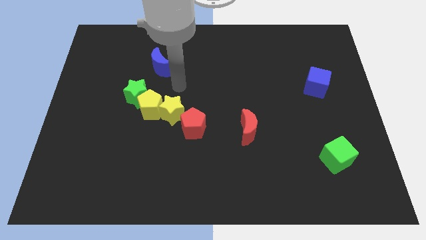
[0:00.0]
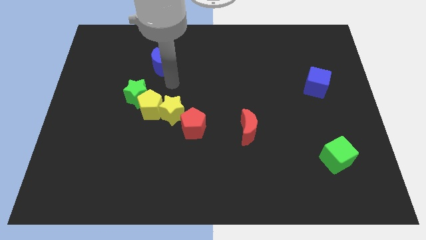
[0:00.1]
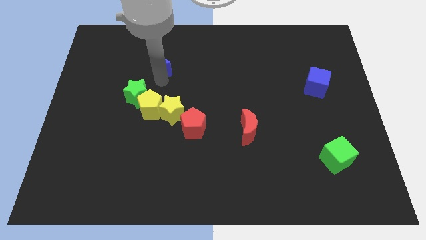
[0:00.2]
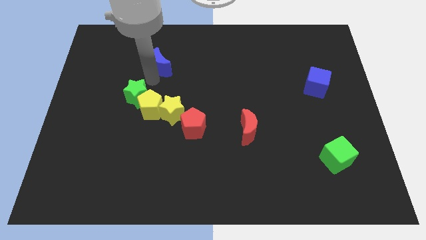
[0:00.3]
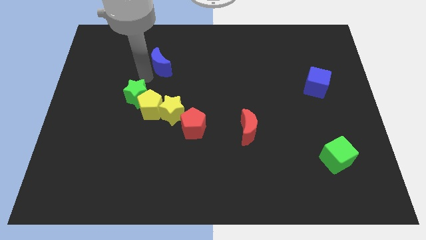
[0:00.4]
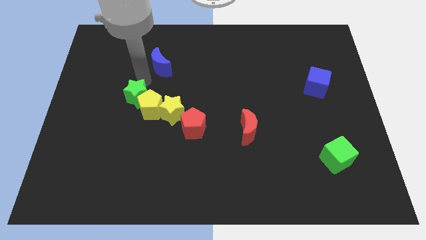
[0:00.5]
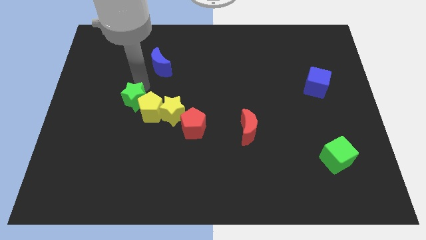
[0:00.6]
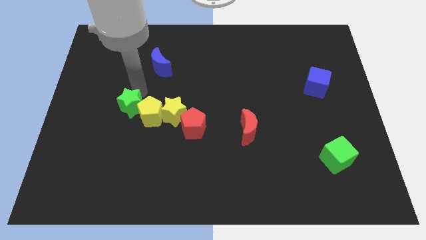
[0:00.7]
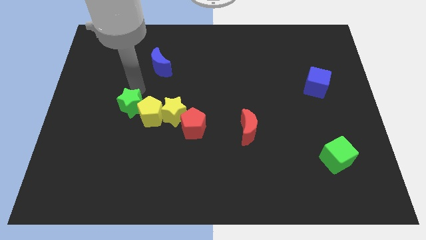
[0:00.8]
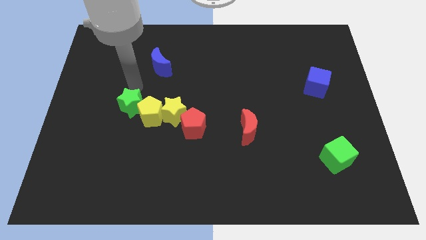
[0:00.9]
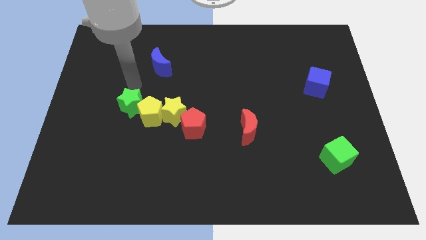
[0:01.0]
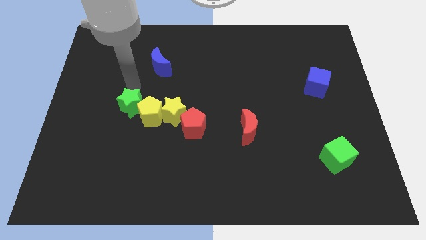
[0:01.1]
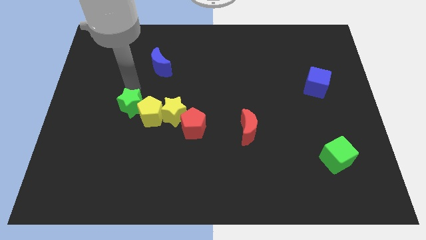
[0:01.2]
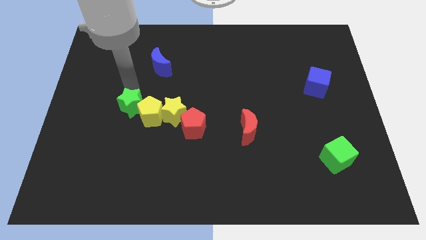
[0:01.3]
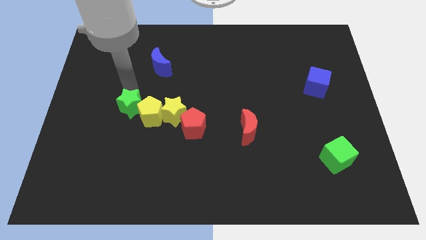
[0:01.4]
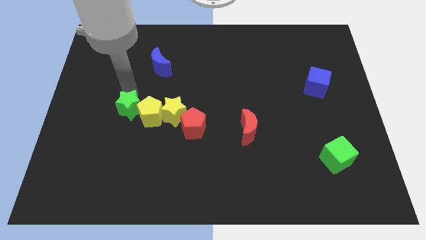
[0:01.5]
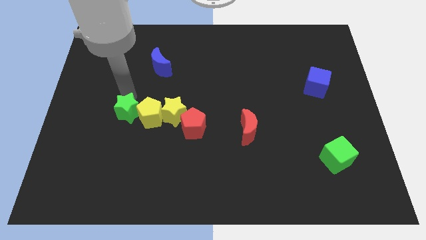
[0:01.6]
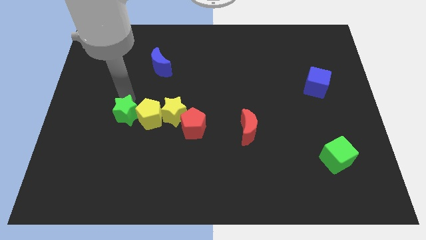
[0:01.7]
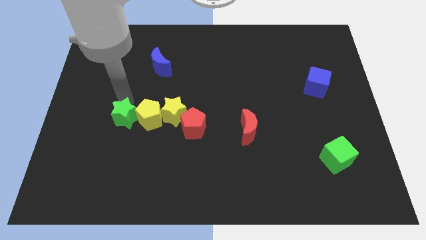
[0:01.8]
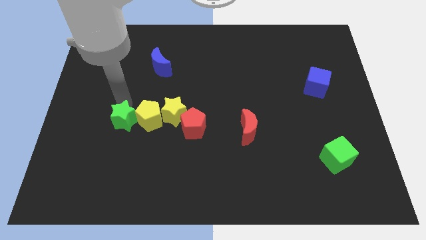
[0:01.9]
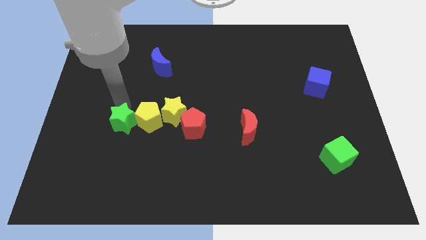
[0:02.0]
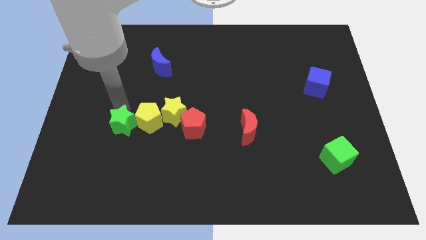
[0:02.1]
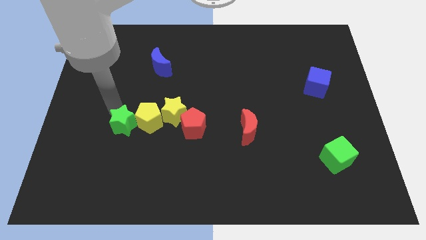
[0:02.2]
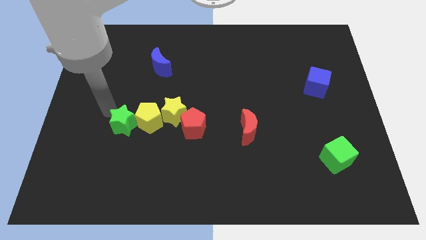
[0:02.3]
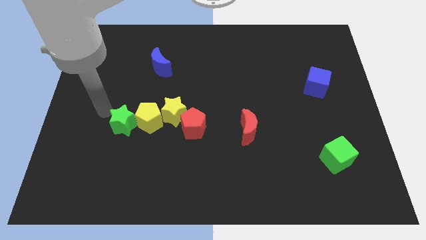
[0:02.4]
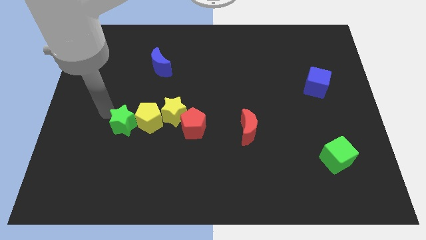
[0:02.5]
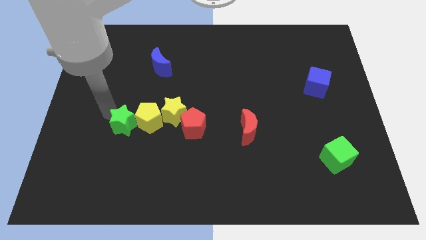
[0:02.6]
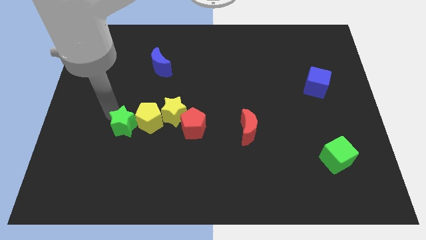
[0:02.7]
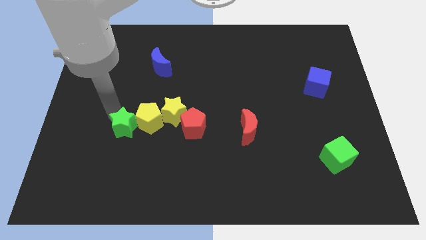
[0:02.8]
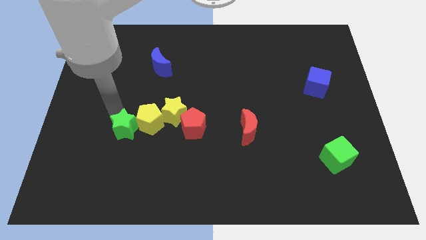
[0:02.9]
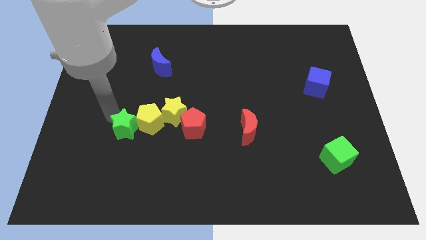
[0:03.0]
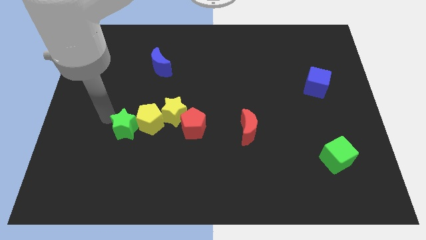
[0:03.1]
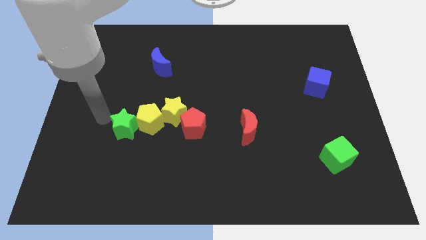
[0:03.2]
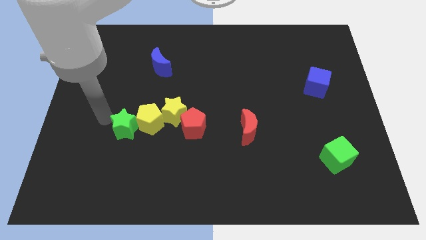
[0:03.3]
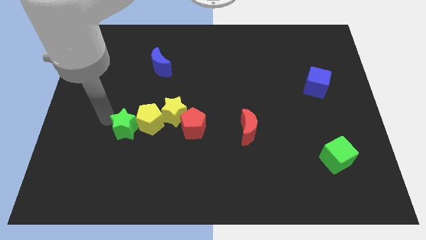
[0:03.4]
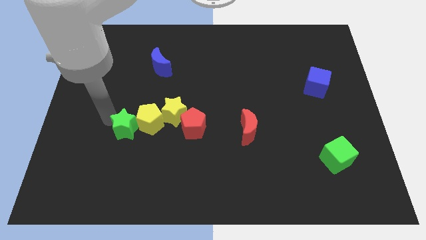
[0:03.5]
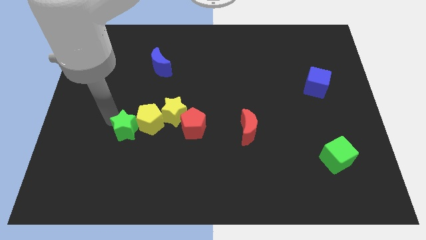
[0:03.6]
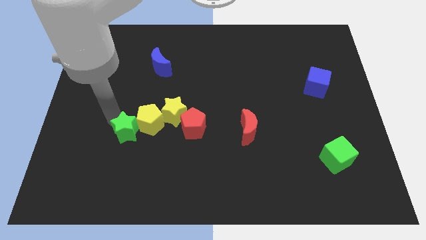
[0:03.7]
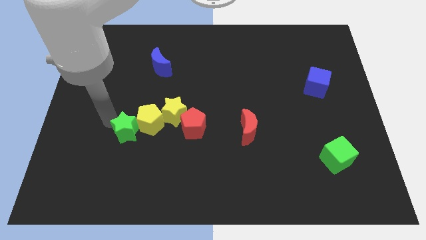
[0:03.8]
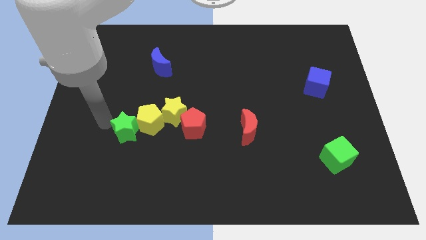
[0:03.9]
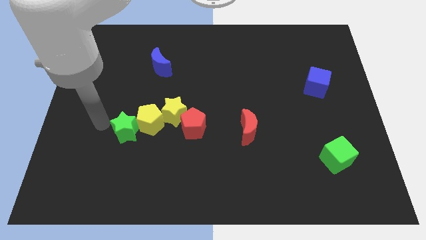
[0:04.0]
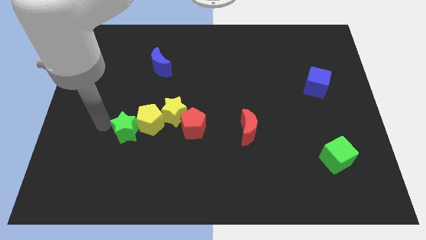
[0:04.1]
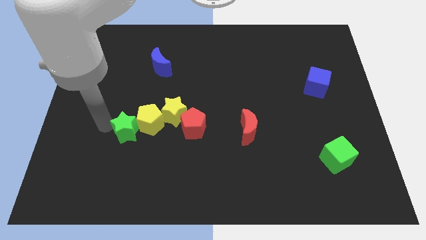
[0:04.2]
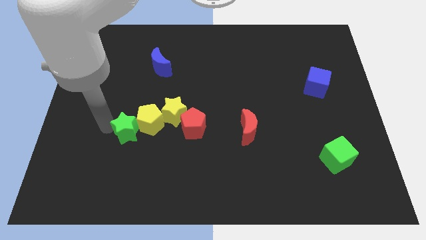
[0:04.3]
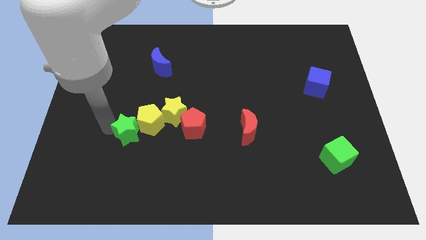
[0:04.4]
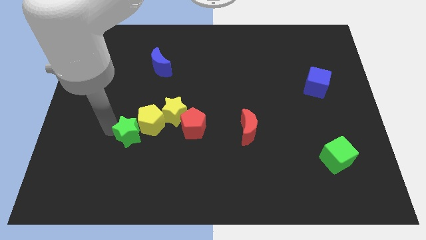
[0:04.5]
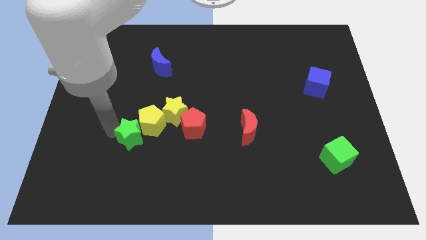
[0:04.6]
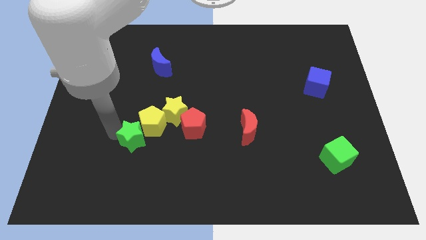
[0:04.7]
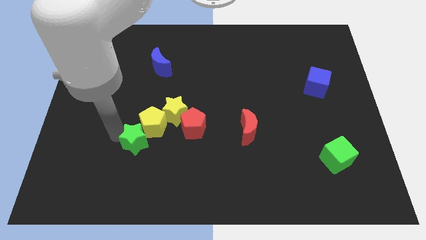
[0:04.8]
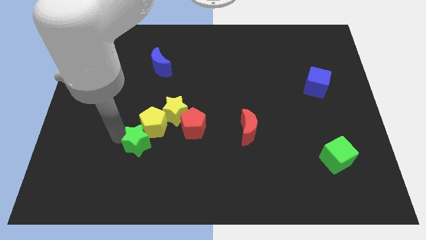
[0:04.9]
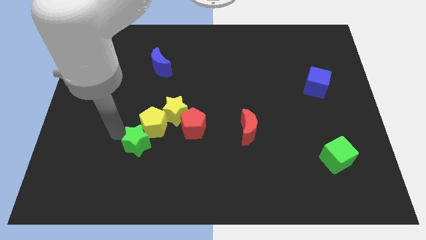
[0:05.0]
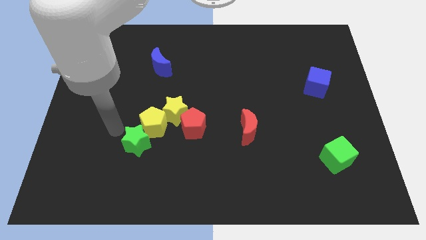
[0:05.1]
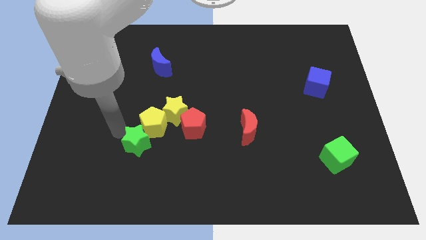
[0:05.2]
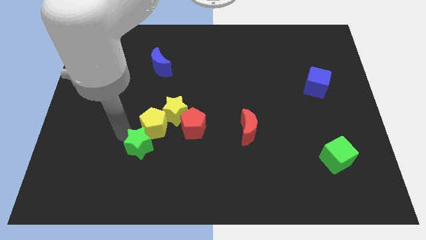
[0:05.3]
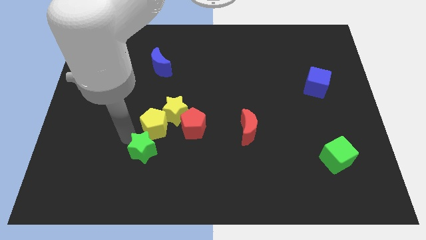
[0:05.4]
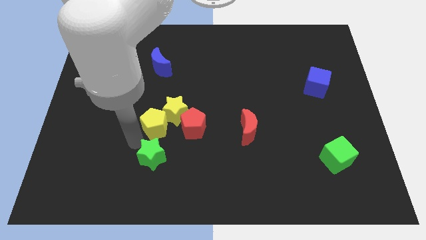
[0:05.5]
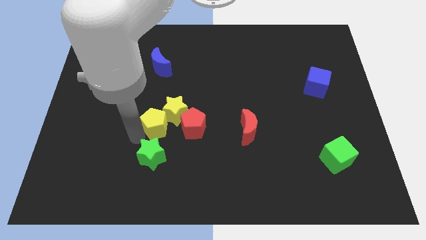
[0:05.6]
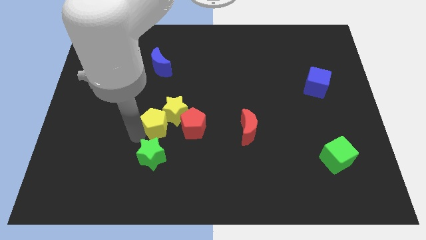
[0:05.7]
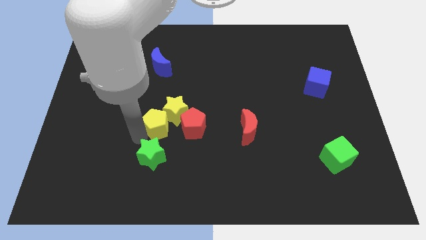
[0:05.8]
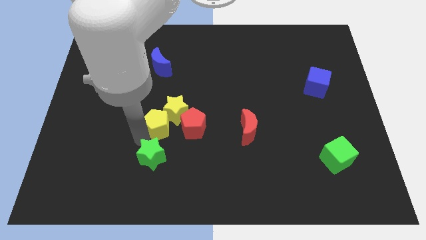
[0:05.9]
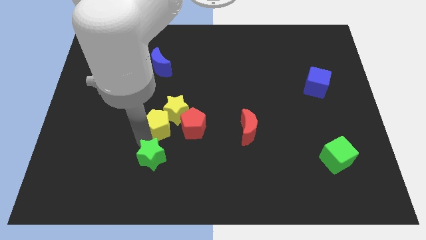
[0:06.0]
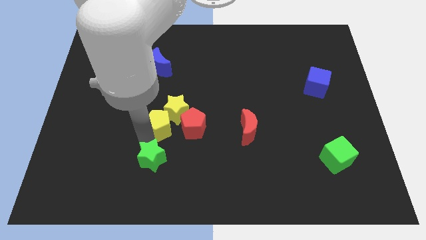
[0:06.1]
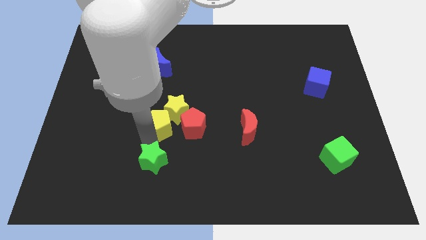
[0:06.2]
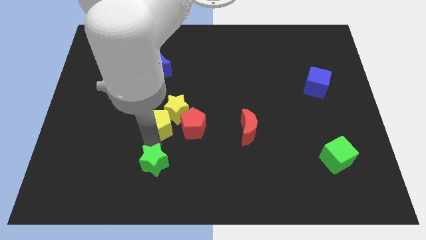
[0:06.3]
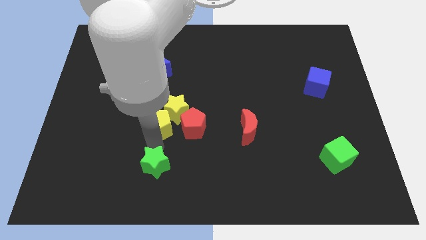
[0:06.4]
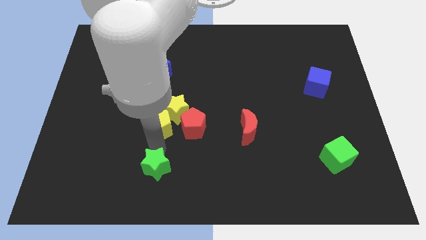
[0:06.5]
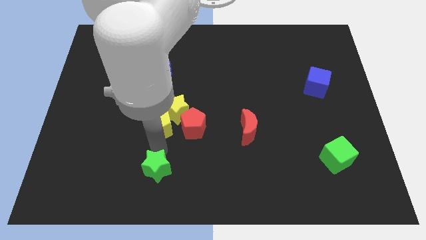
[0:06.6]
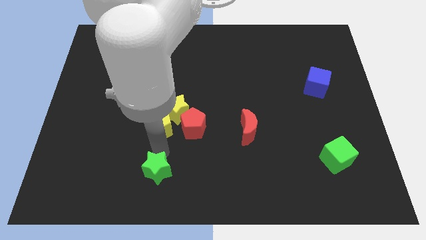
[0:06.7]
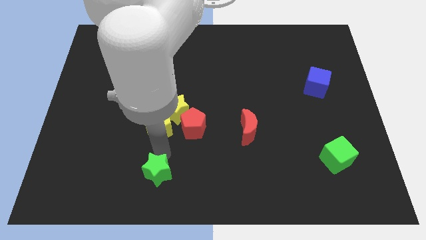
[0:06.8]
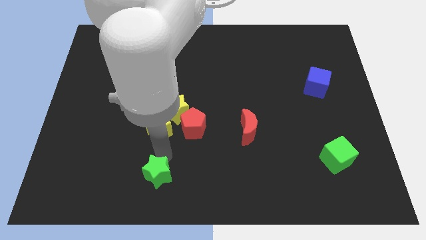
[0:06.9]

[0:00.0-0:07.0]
put the green star to the bottom side
